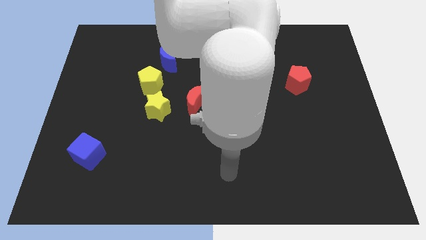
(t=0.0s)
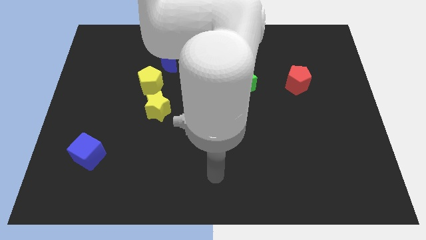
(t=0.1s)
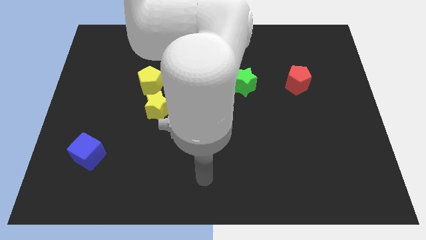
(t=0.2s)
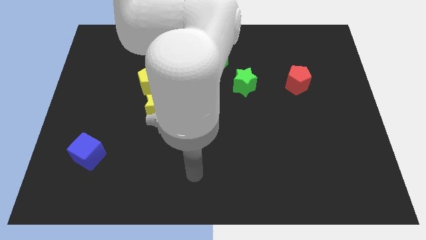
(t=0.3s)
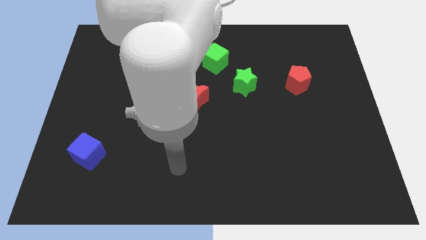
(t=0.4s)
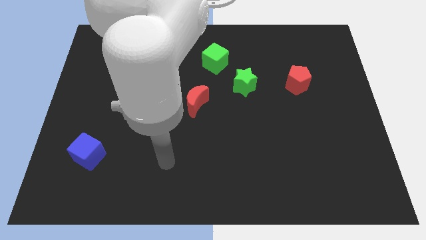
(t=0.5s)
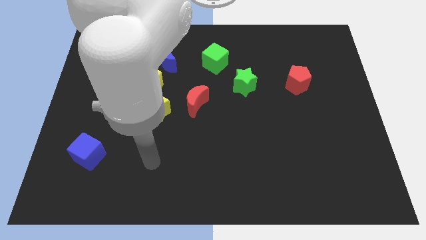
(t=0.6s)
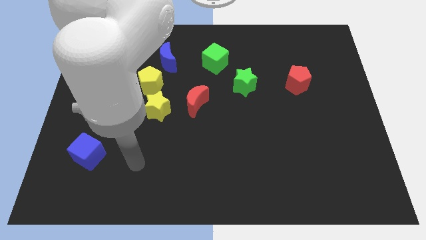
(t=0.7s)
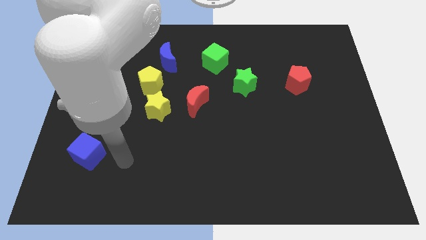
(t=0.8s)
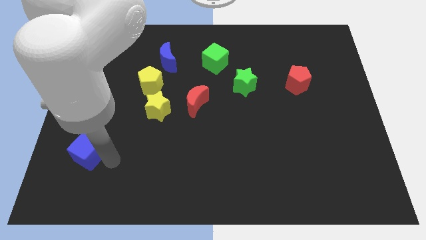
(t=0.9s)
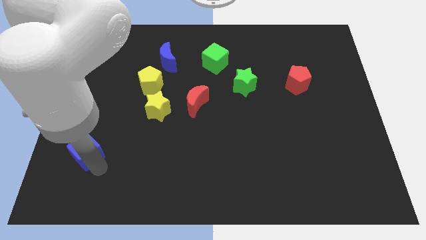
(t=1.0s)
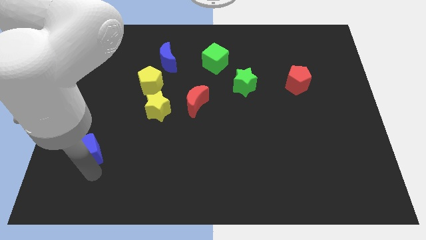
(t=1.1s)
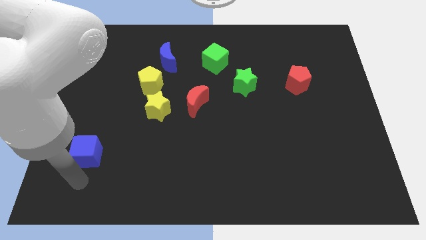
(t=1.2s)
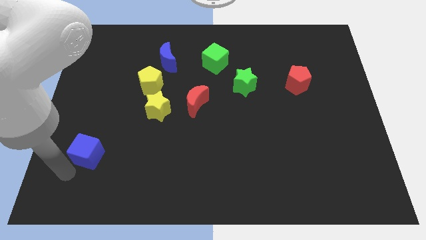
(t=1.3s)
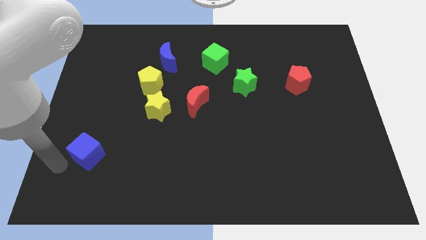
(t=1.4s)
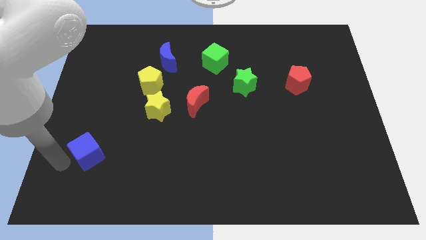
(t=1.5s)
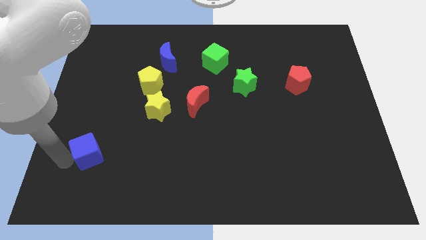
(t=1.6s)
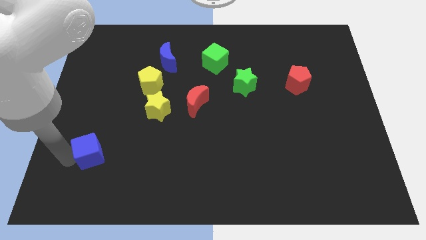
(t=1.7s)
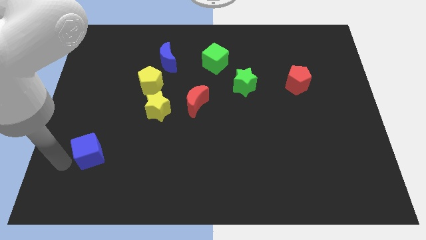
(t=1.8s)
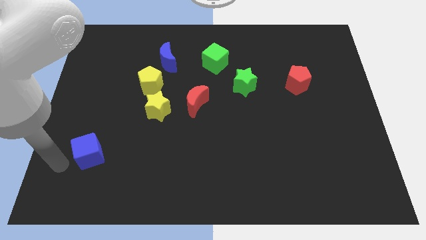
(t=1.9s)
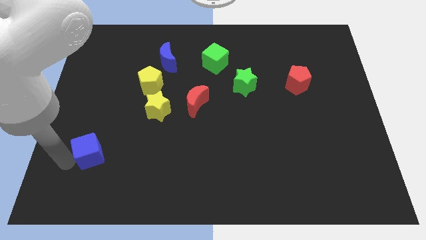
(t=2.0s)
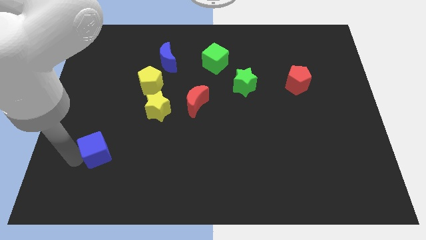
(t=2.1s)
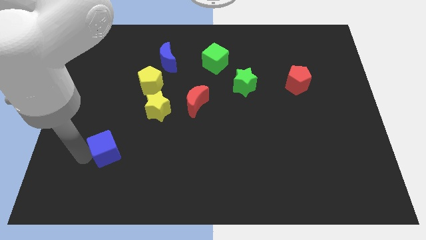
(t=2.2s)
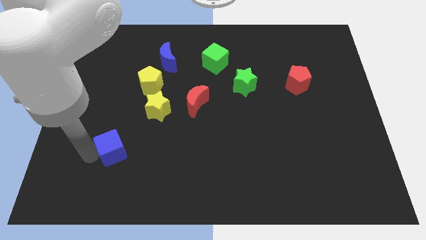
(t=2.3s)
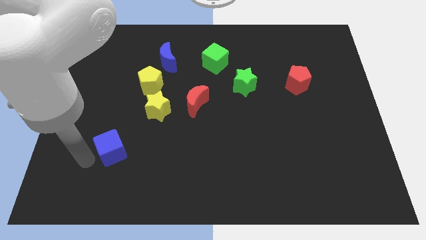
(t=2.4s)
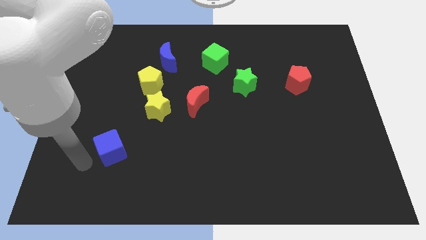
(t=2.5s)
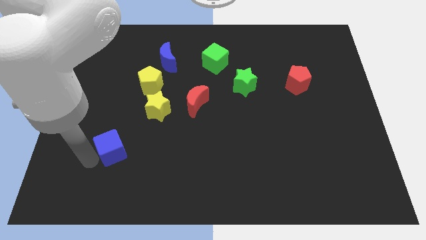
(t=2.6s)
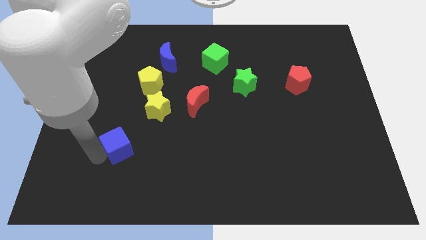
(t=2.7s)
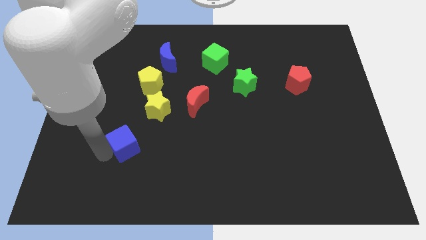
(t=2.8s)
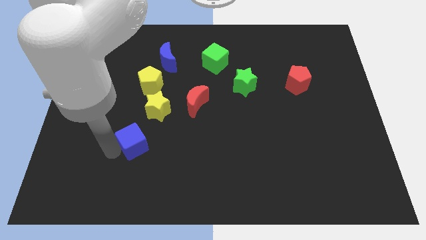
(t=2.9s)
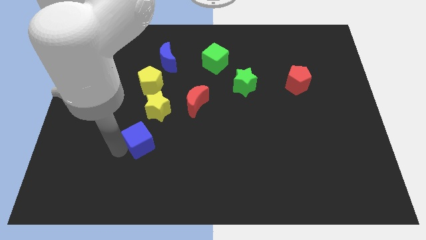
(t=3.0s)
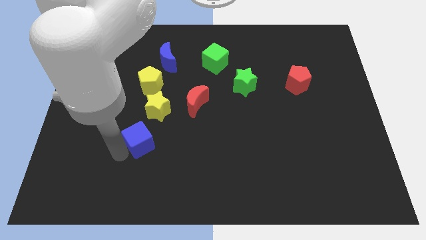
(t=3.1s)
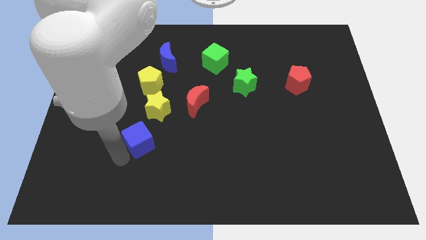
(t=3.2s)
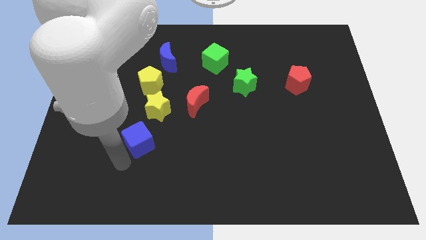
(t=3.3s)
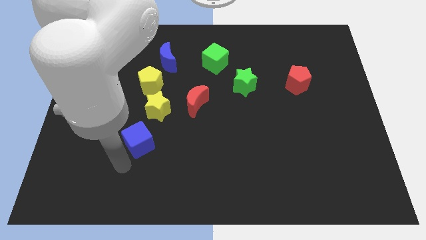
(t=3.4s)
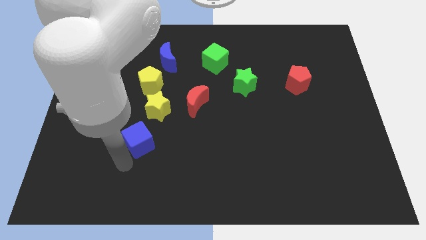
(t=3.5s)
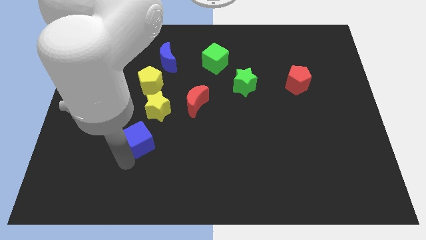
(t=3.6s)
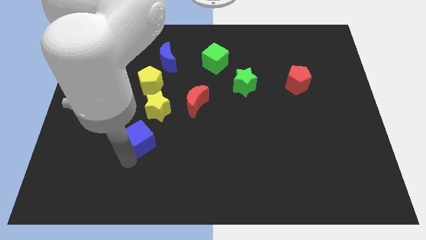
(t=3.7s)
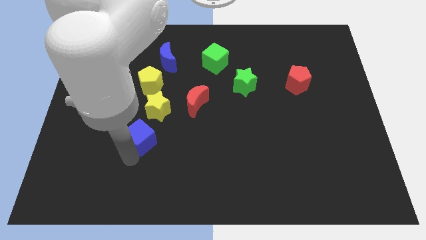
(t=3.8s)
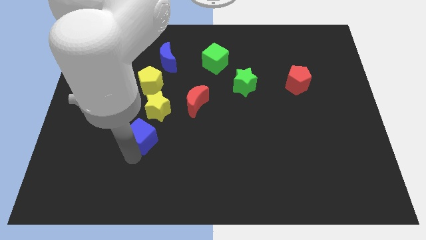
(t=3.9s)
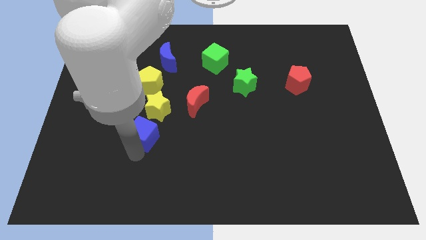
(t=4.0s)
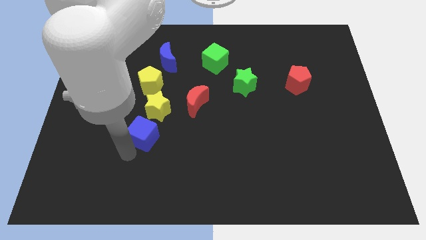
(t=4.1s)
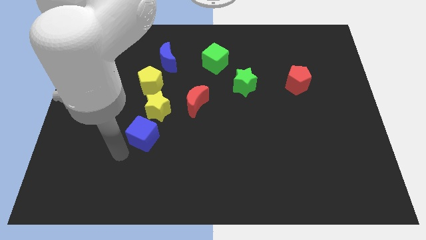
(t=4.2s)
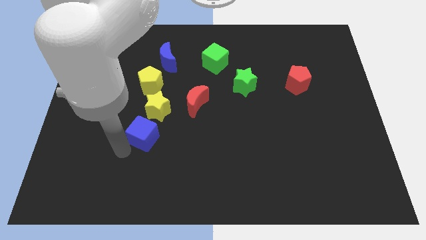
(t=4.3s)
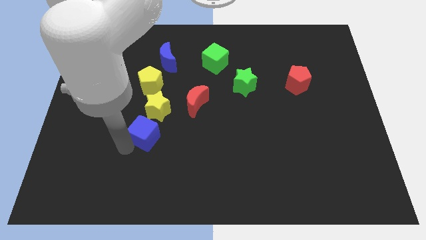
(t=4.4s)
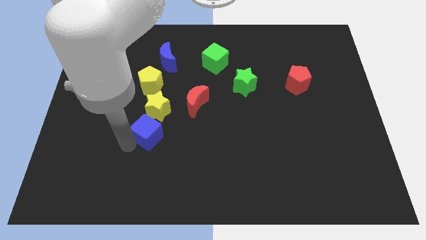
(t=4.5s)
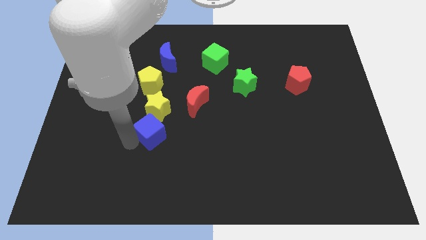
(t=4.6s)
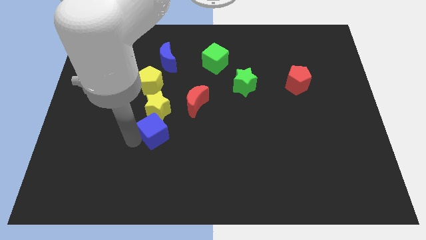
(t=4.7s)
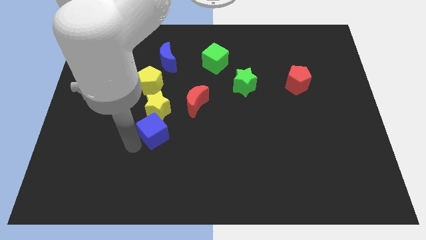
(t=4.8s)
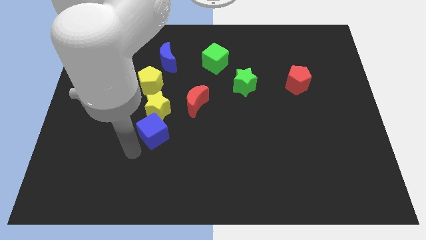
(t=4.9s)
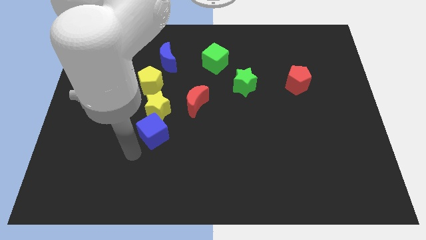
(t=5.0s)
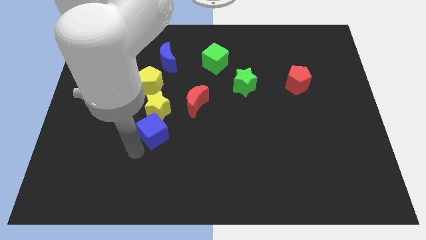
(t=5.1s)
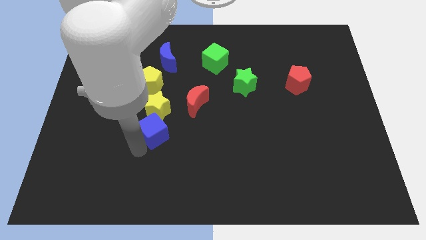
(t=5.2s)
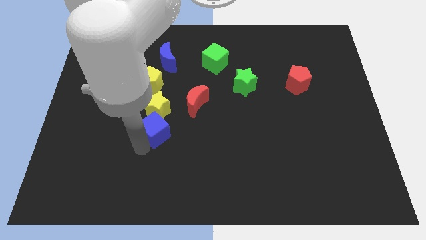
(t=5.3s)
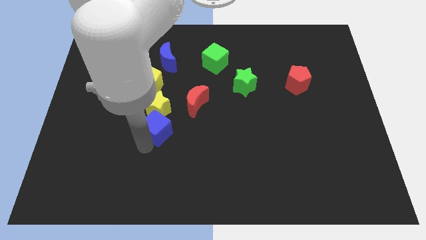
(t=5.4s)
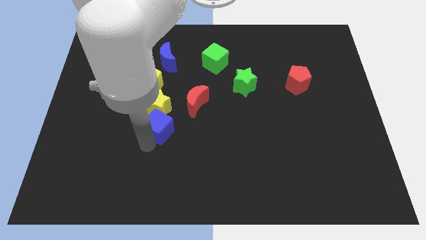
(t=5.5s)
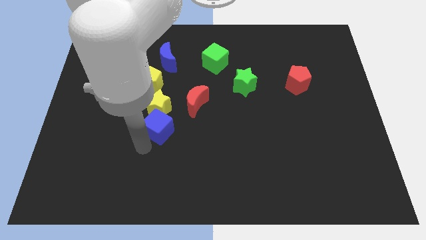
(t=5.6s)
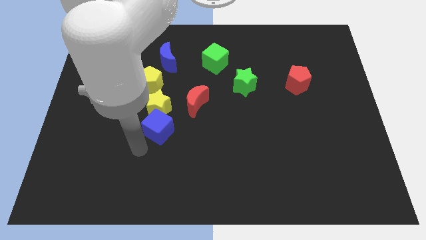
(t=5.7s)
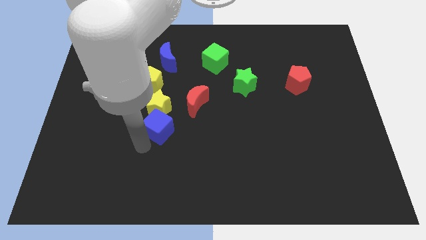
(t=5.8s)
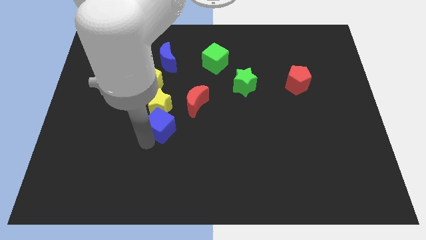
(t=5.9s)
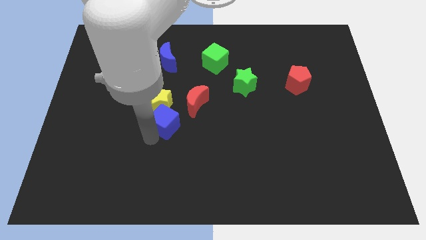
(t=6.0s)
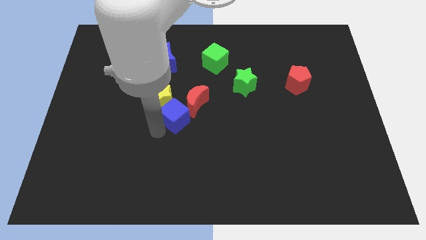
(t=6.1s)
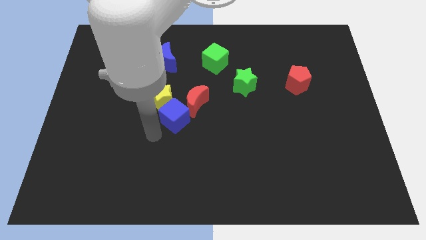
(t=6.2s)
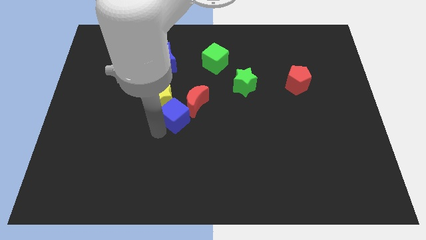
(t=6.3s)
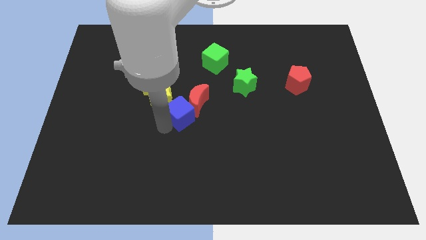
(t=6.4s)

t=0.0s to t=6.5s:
put the blue cube close to the red moon

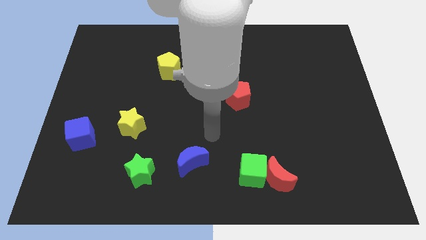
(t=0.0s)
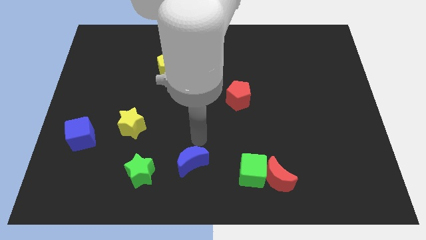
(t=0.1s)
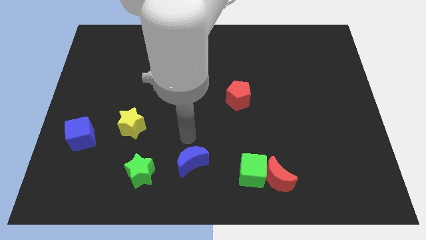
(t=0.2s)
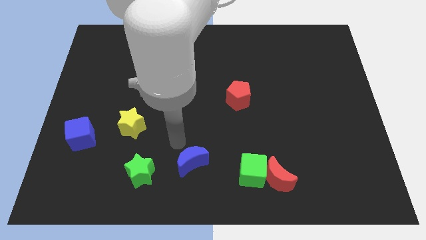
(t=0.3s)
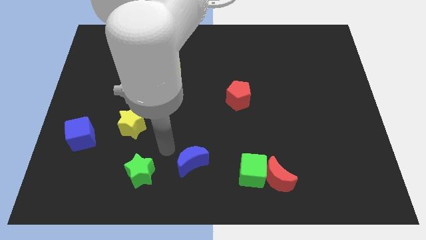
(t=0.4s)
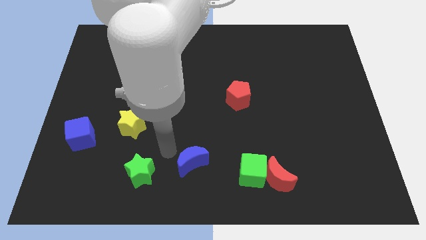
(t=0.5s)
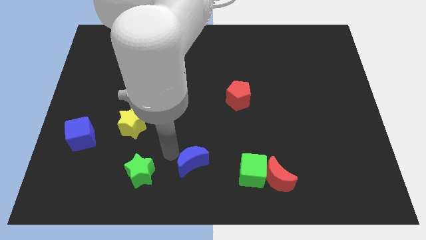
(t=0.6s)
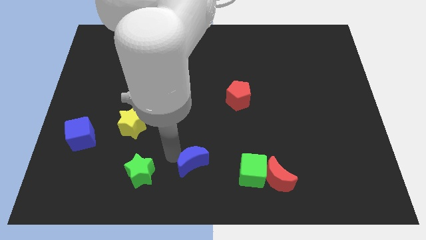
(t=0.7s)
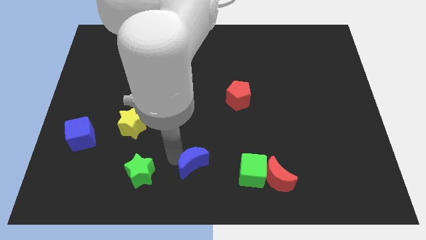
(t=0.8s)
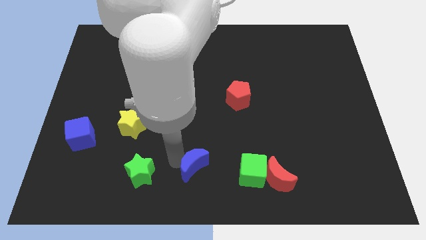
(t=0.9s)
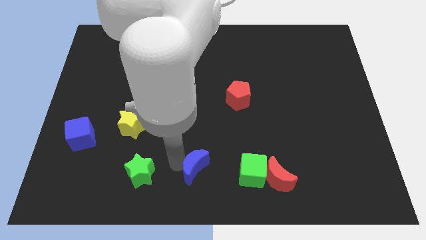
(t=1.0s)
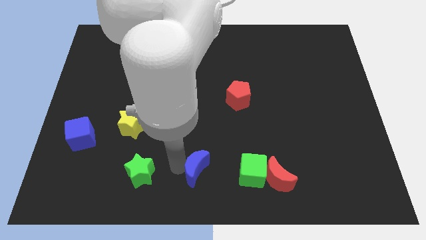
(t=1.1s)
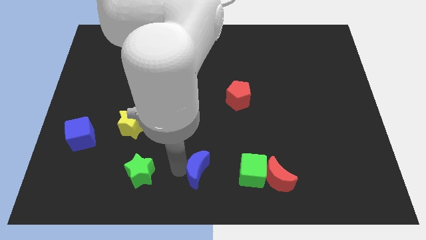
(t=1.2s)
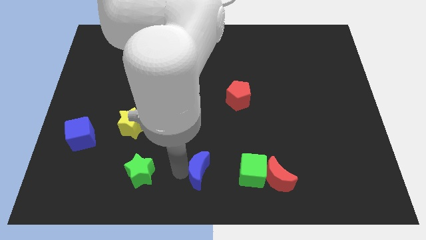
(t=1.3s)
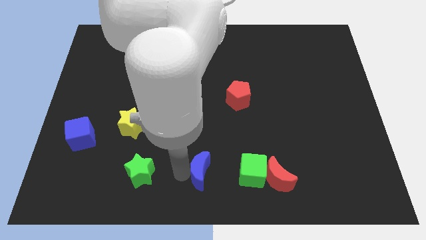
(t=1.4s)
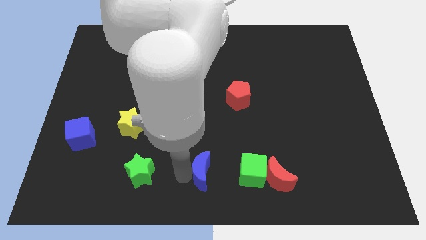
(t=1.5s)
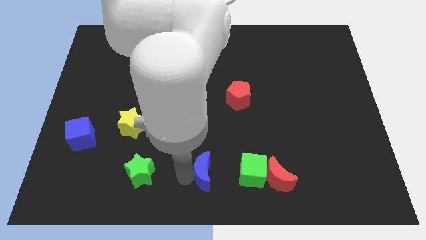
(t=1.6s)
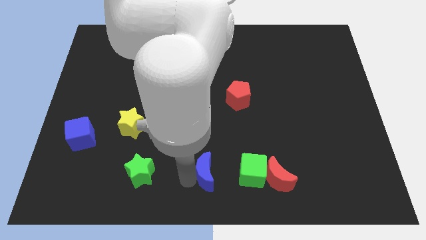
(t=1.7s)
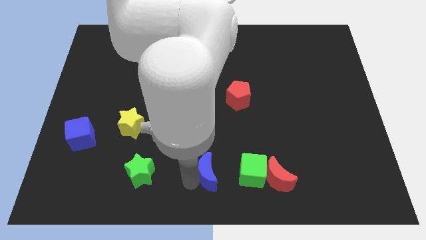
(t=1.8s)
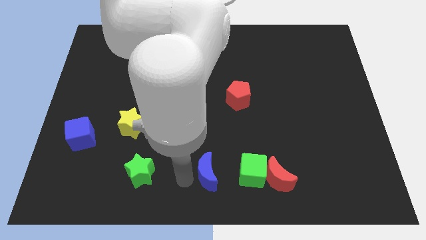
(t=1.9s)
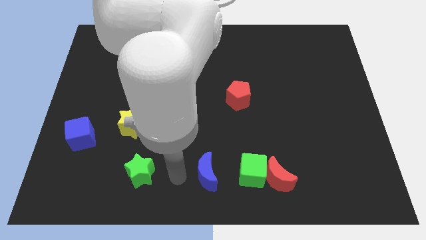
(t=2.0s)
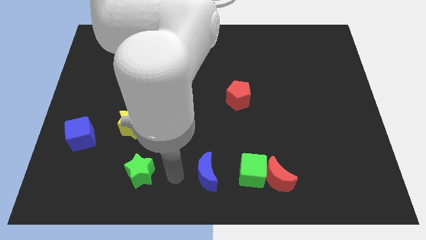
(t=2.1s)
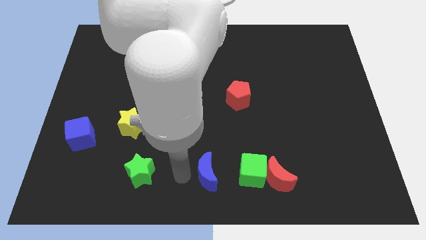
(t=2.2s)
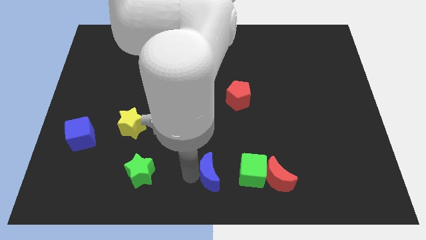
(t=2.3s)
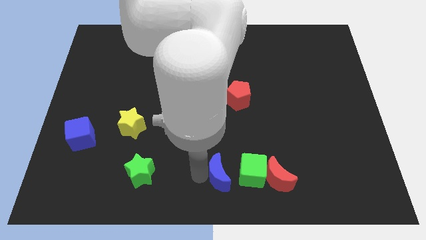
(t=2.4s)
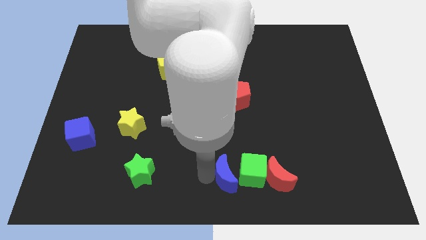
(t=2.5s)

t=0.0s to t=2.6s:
slide the blue moon towards the green cube
